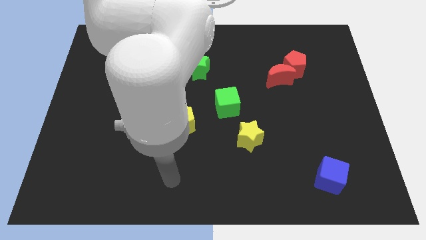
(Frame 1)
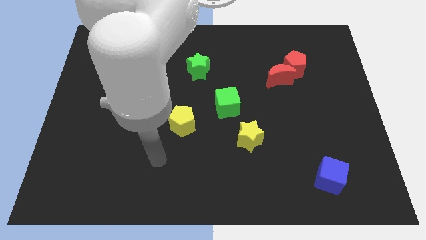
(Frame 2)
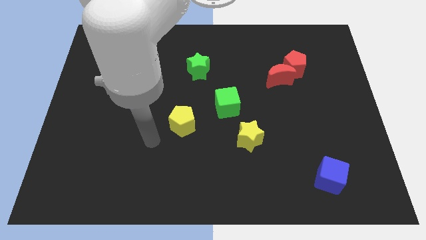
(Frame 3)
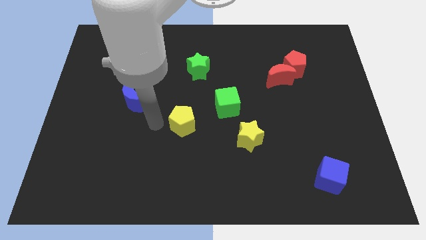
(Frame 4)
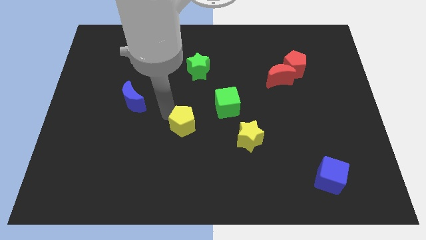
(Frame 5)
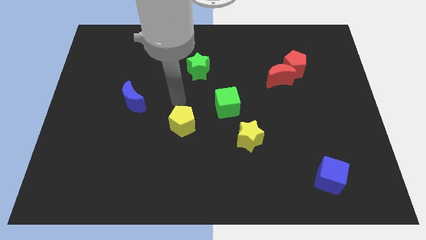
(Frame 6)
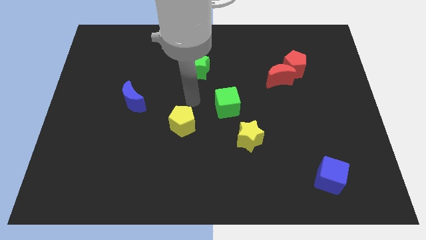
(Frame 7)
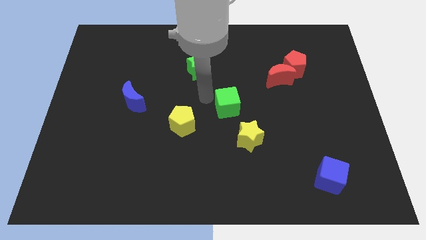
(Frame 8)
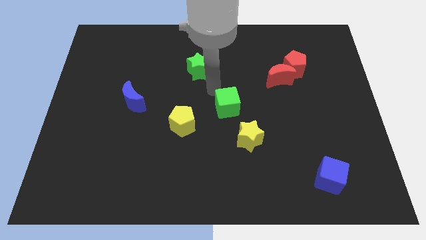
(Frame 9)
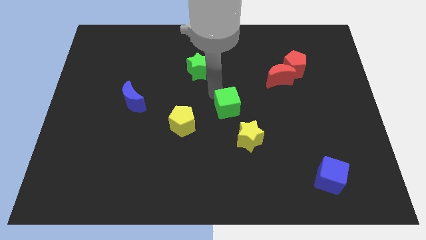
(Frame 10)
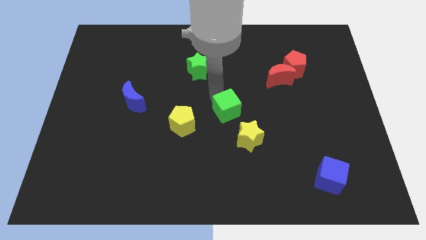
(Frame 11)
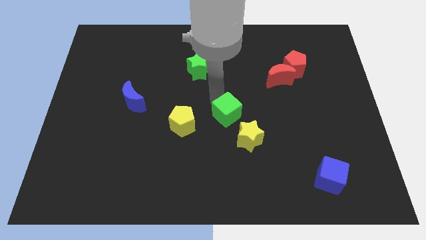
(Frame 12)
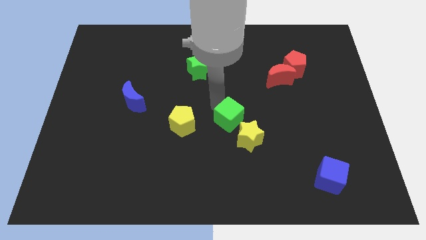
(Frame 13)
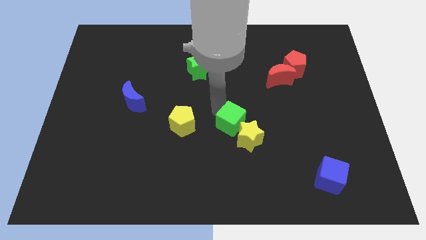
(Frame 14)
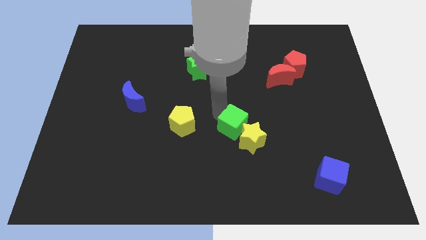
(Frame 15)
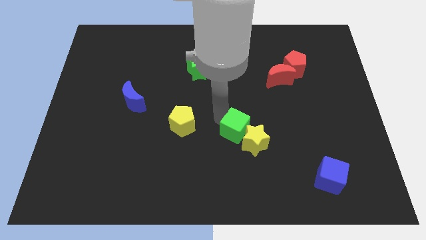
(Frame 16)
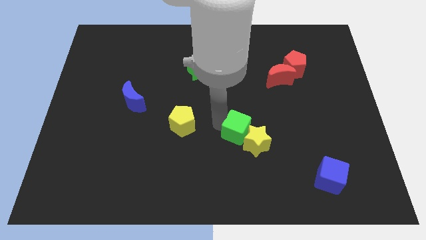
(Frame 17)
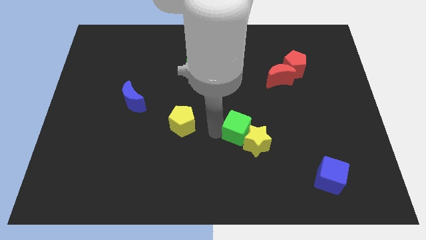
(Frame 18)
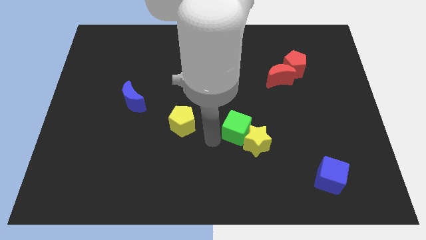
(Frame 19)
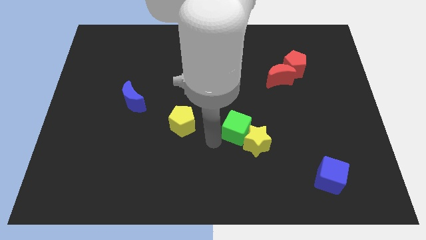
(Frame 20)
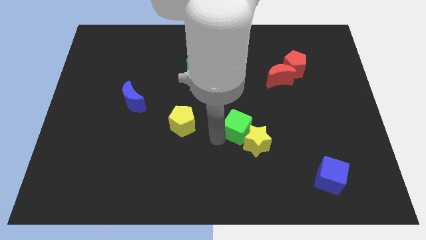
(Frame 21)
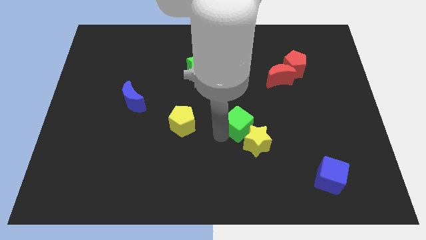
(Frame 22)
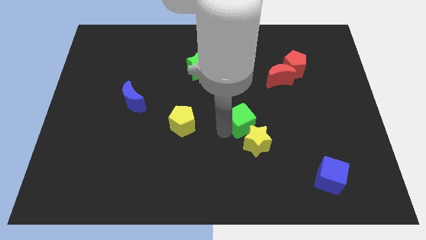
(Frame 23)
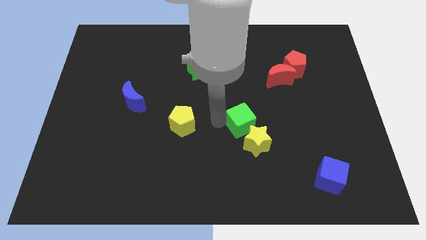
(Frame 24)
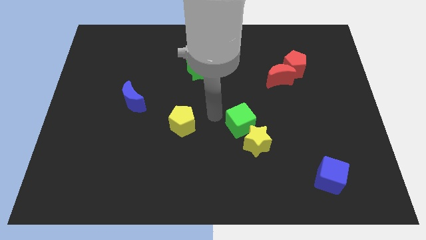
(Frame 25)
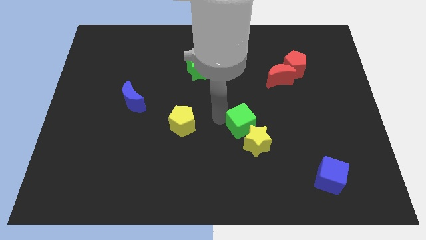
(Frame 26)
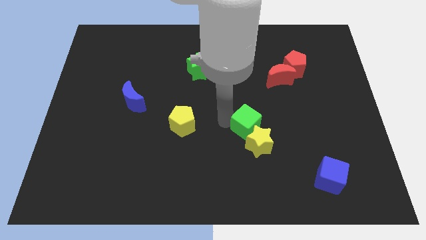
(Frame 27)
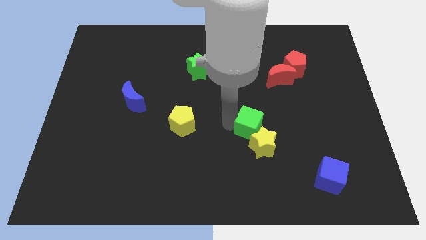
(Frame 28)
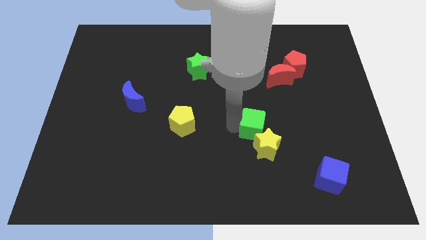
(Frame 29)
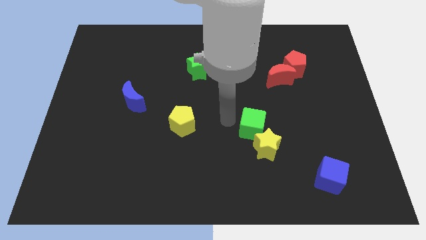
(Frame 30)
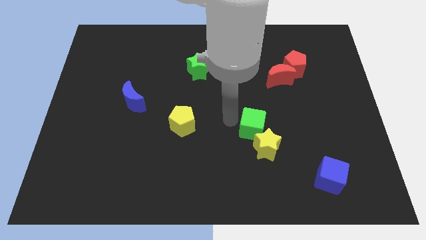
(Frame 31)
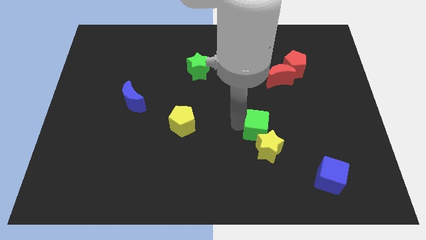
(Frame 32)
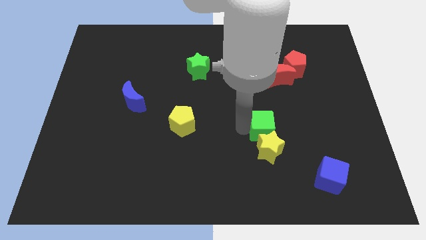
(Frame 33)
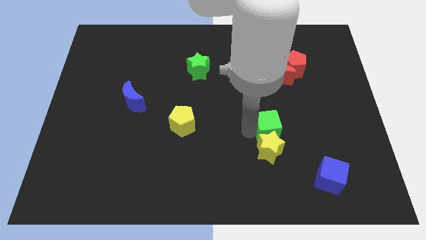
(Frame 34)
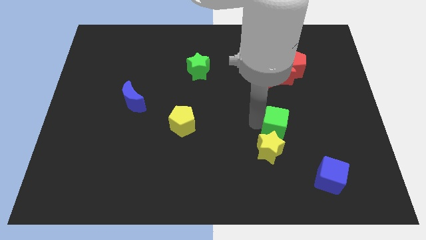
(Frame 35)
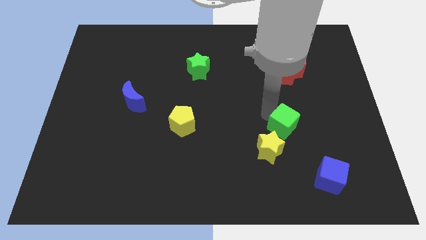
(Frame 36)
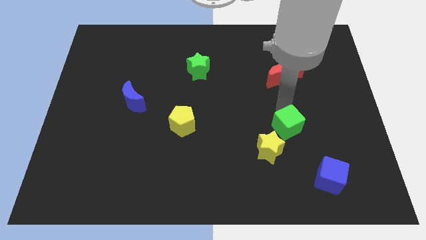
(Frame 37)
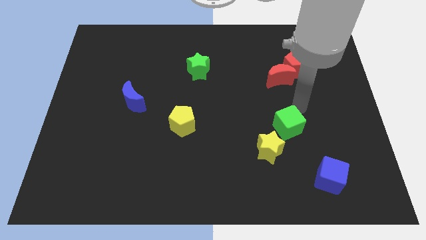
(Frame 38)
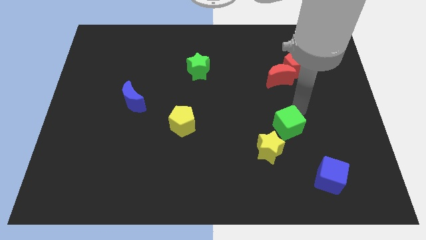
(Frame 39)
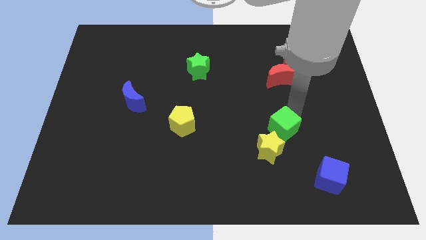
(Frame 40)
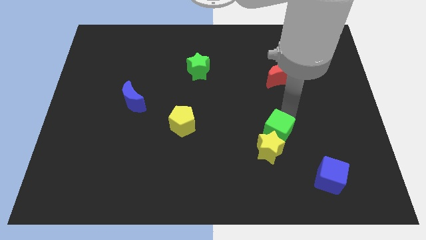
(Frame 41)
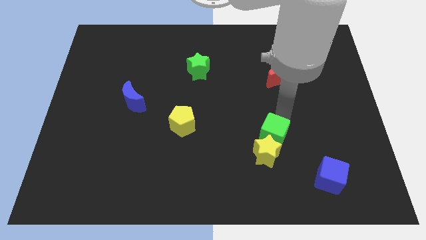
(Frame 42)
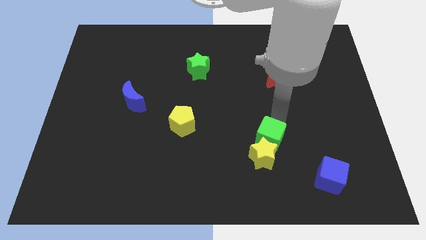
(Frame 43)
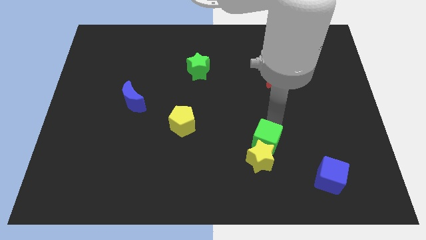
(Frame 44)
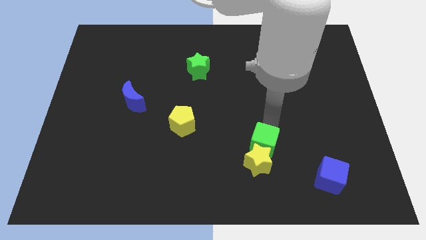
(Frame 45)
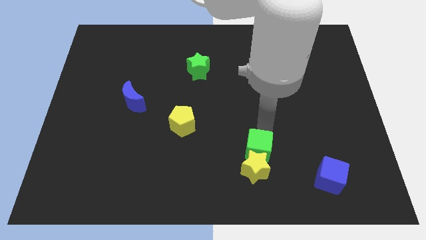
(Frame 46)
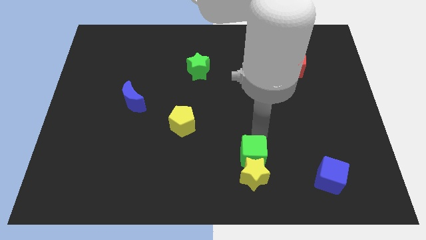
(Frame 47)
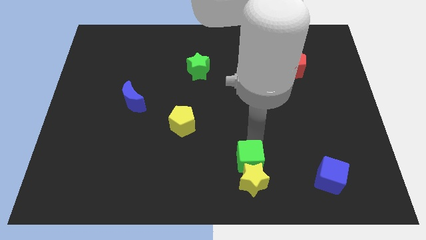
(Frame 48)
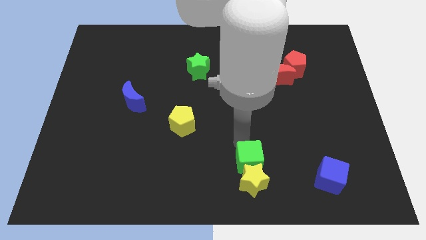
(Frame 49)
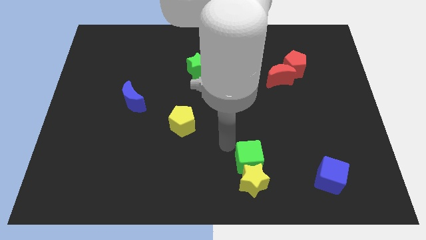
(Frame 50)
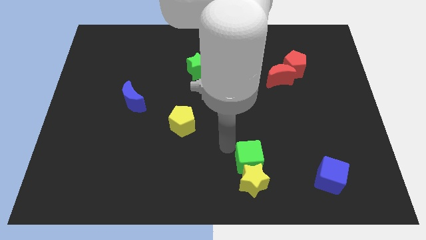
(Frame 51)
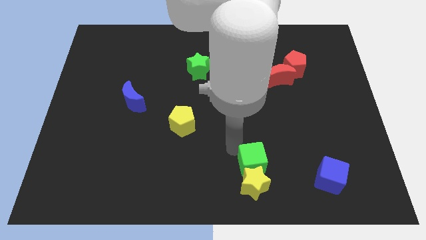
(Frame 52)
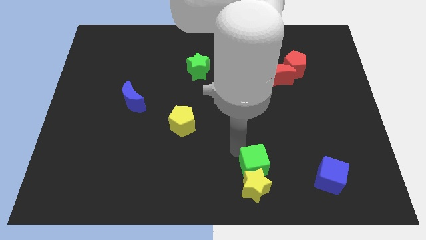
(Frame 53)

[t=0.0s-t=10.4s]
put the green cube just left of the blue cube

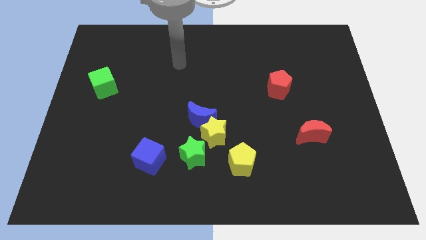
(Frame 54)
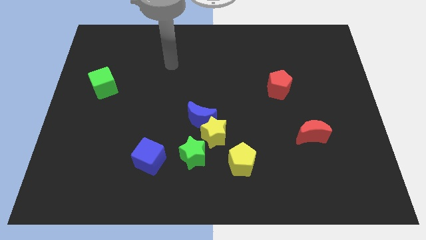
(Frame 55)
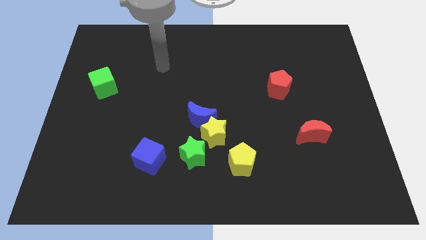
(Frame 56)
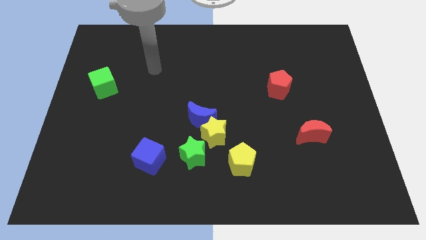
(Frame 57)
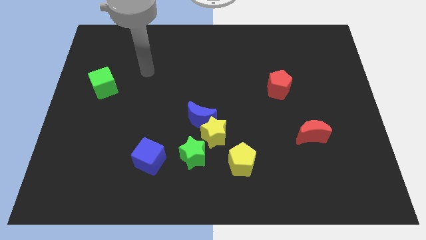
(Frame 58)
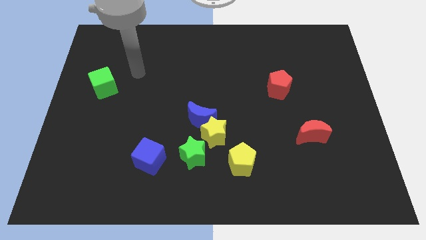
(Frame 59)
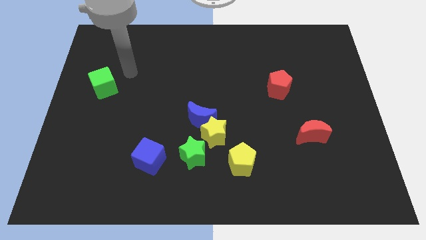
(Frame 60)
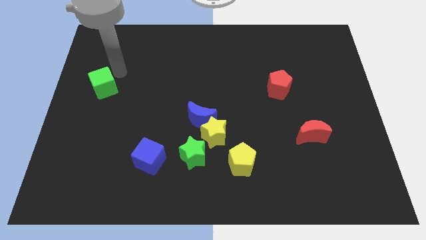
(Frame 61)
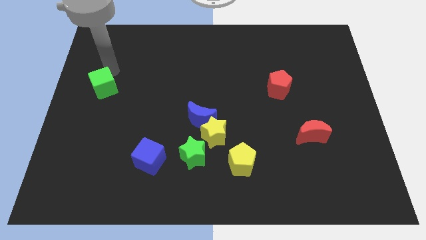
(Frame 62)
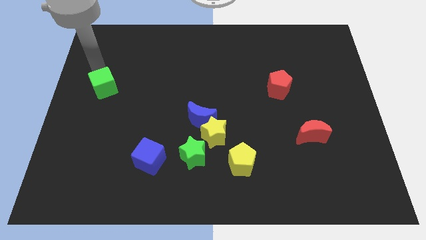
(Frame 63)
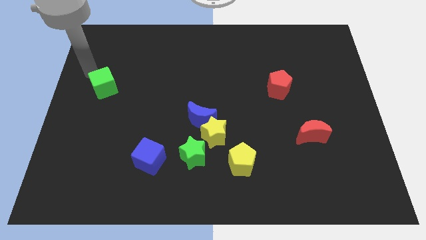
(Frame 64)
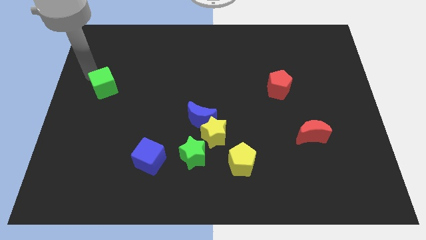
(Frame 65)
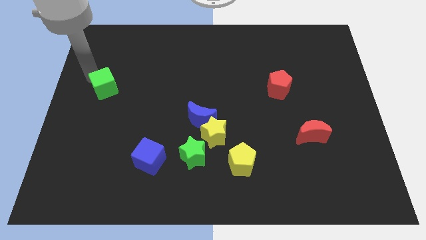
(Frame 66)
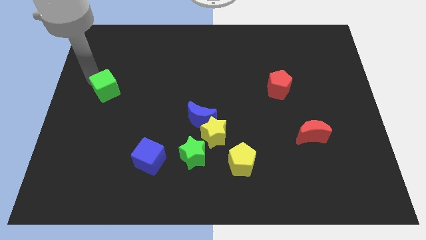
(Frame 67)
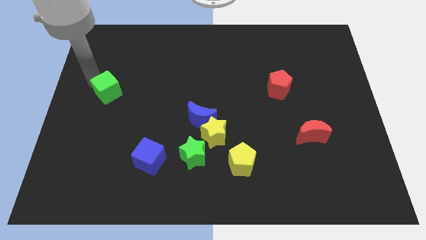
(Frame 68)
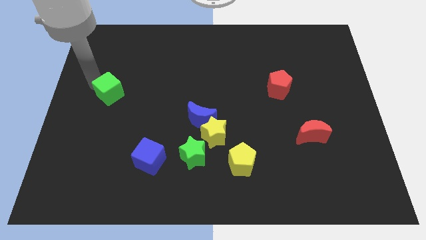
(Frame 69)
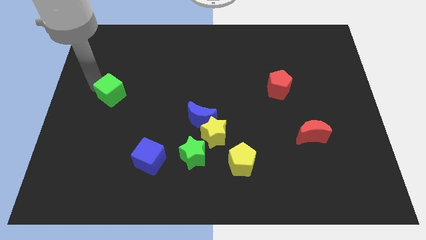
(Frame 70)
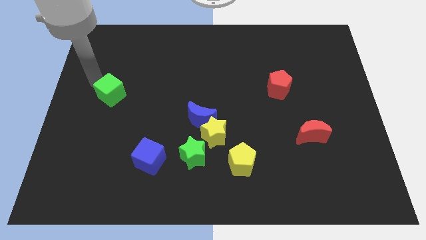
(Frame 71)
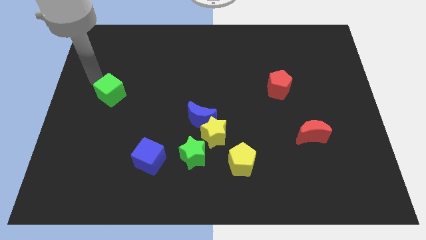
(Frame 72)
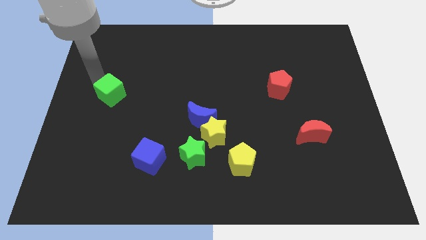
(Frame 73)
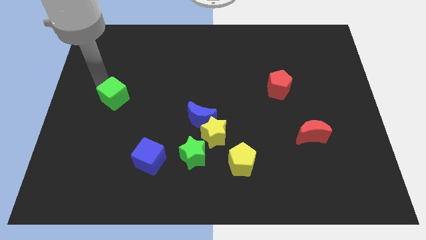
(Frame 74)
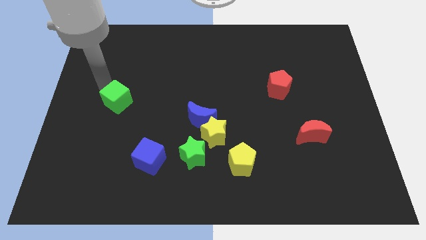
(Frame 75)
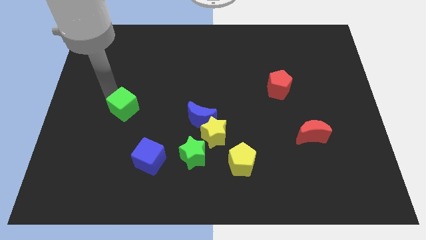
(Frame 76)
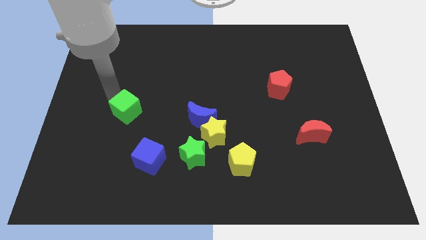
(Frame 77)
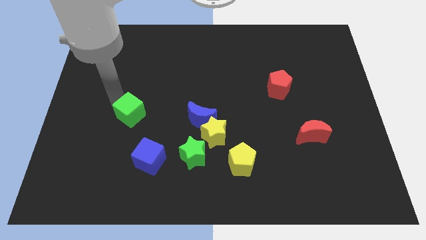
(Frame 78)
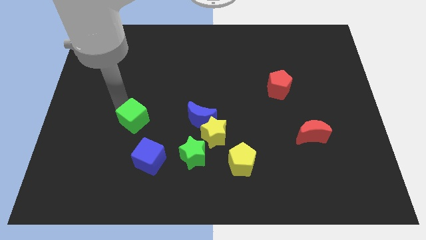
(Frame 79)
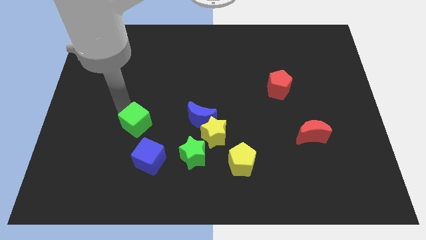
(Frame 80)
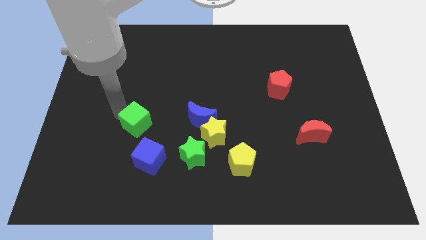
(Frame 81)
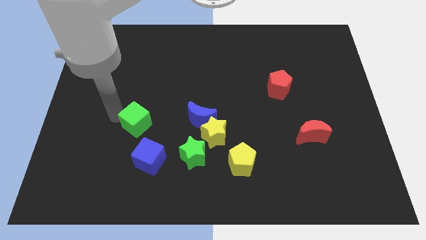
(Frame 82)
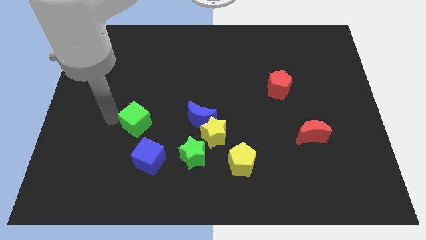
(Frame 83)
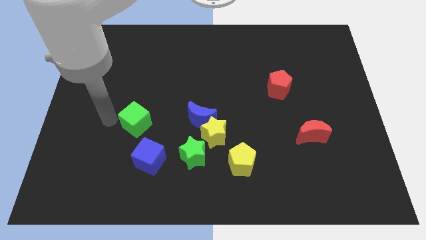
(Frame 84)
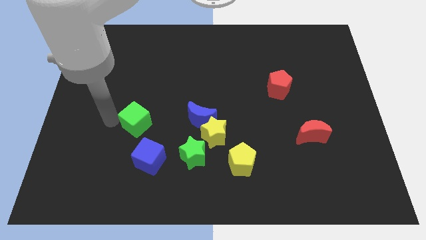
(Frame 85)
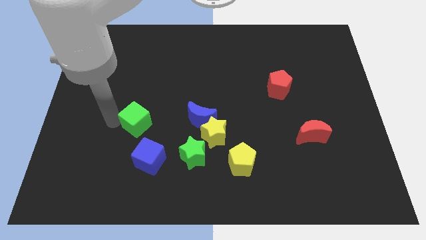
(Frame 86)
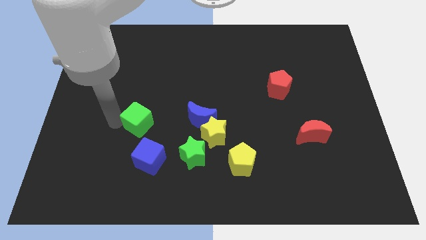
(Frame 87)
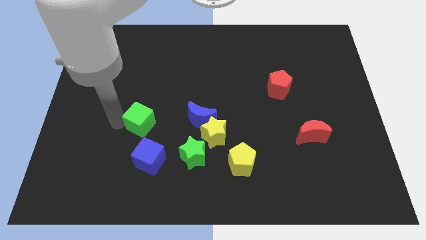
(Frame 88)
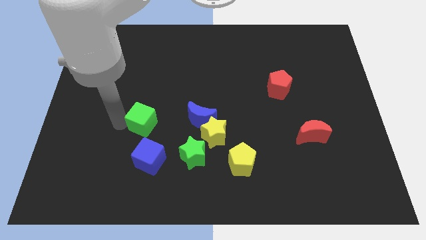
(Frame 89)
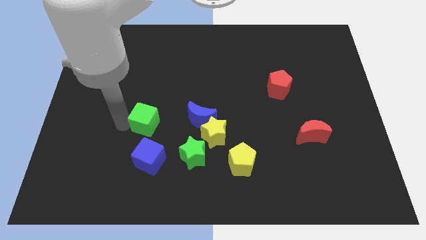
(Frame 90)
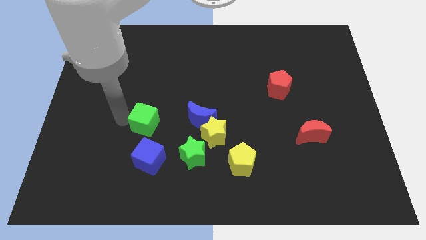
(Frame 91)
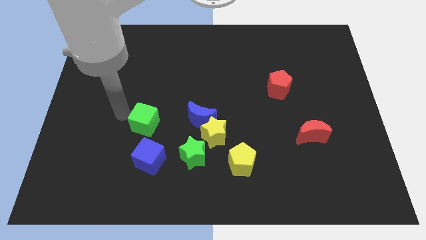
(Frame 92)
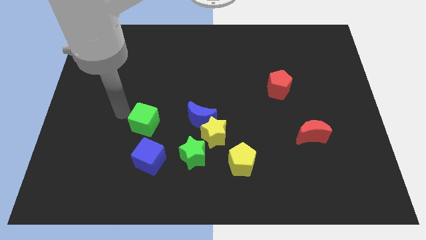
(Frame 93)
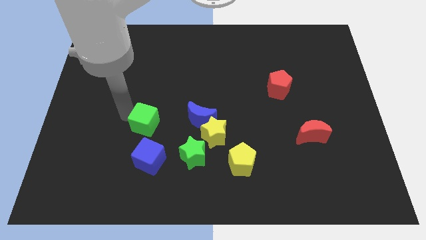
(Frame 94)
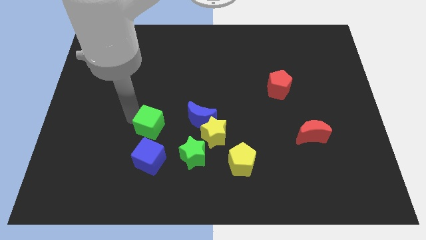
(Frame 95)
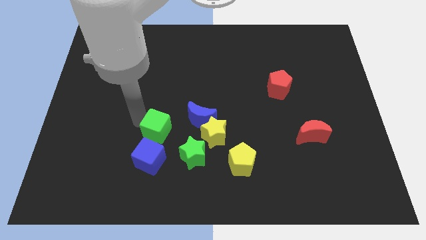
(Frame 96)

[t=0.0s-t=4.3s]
move the green cube to the top left side of the green star
